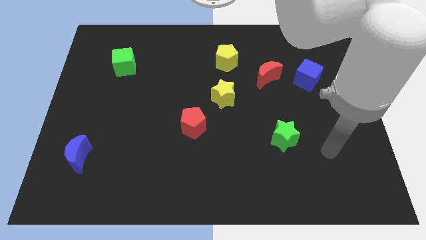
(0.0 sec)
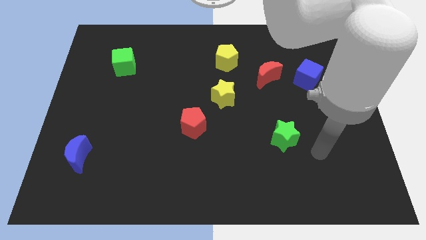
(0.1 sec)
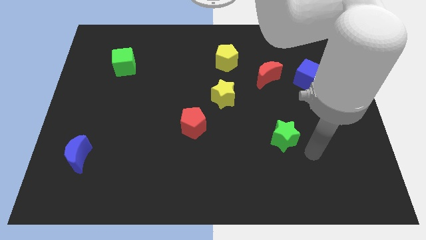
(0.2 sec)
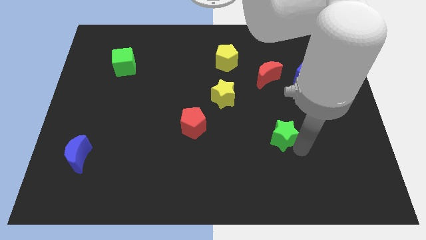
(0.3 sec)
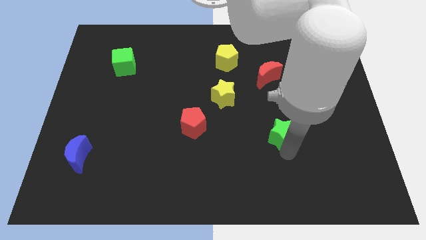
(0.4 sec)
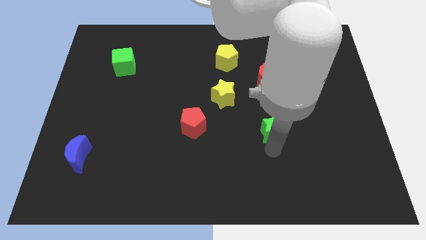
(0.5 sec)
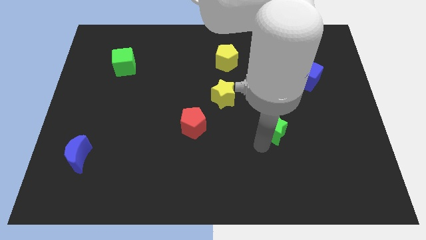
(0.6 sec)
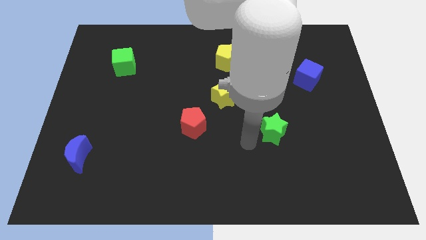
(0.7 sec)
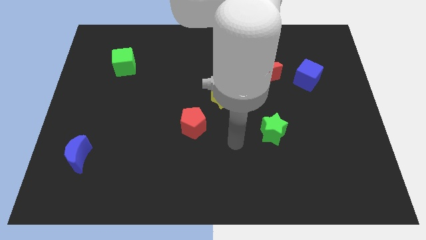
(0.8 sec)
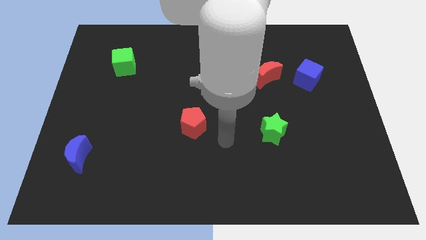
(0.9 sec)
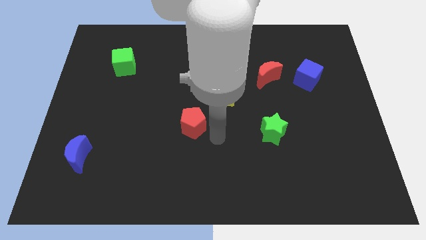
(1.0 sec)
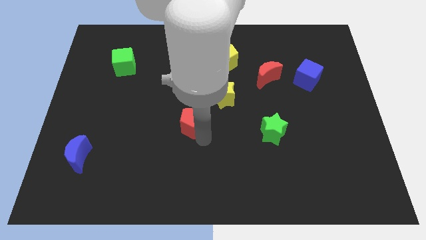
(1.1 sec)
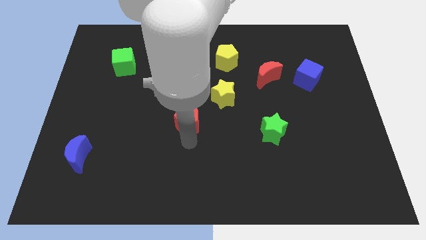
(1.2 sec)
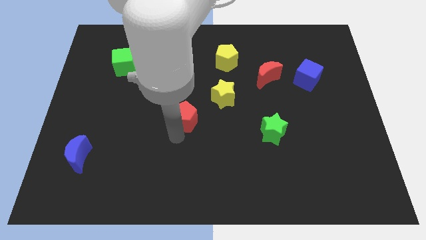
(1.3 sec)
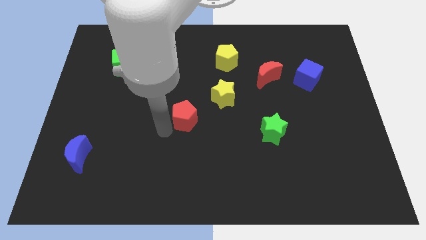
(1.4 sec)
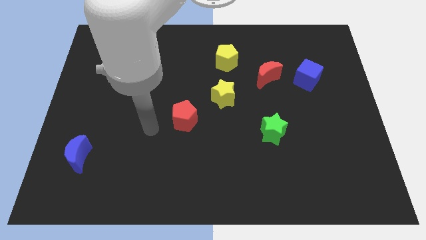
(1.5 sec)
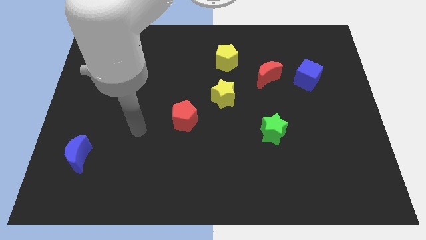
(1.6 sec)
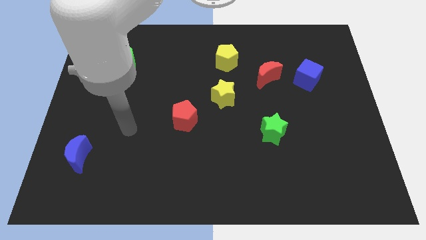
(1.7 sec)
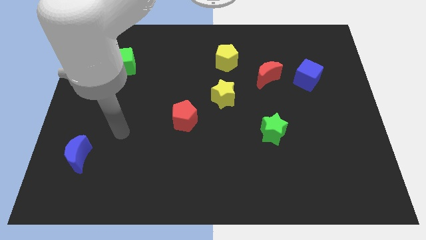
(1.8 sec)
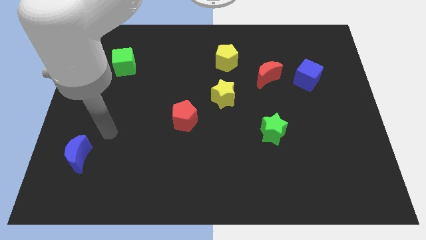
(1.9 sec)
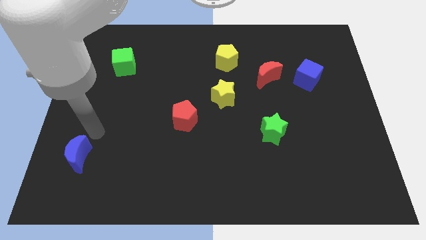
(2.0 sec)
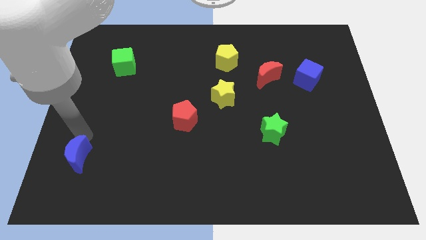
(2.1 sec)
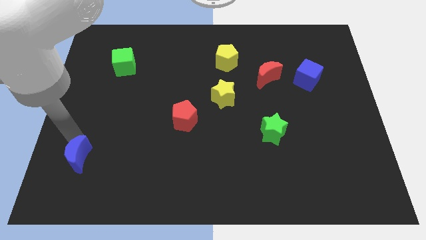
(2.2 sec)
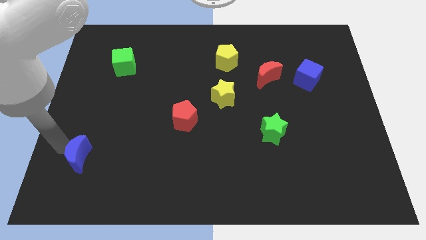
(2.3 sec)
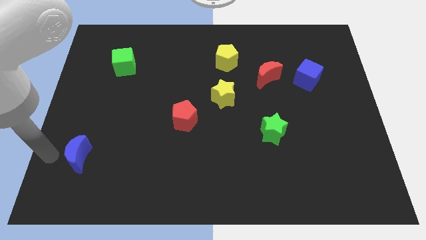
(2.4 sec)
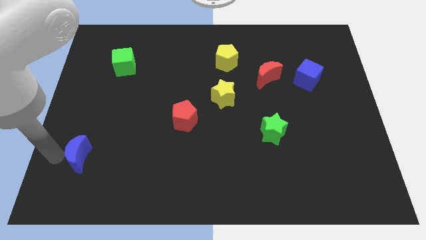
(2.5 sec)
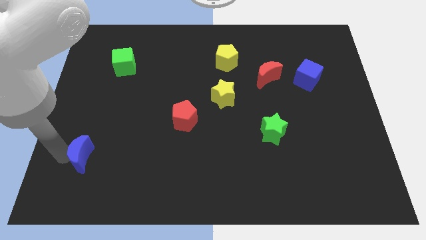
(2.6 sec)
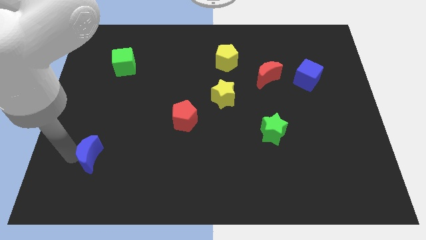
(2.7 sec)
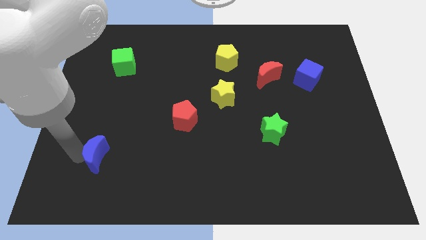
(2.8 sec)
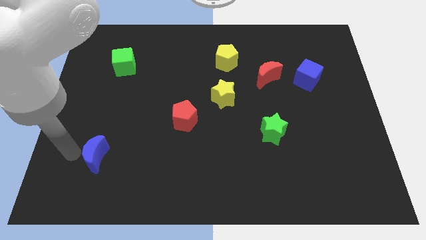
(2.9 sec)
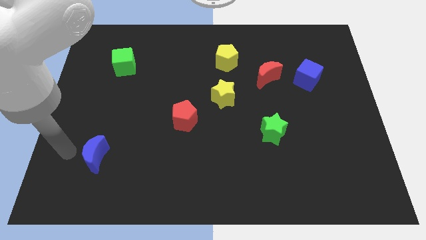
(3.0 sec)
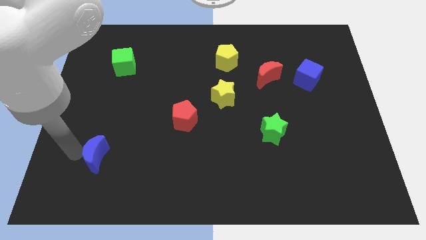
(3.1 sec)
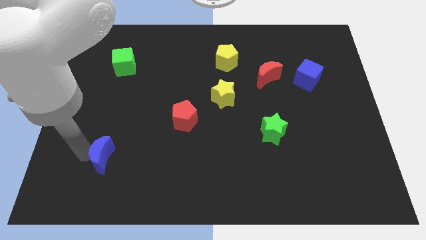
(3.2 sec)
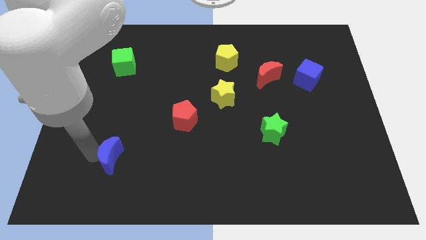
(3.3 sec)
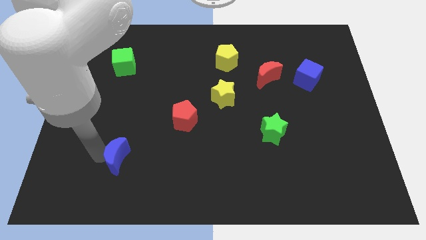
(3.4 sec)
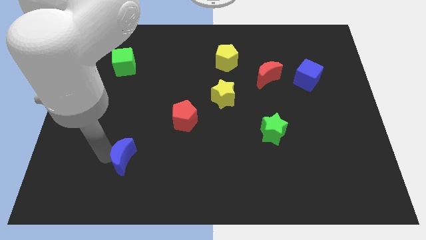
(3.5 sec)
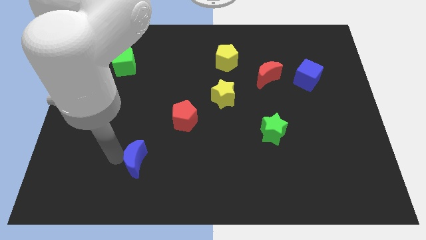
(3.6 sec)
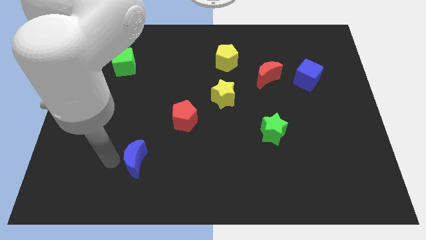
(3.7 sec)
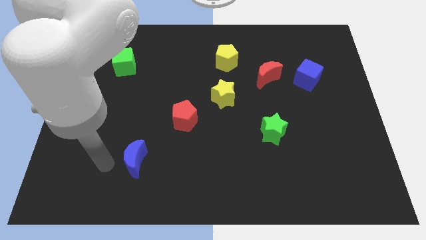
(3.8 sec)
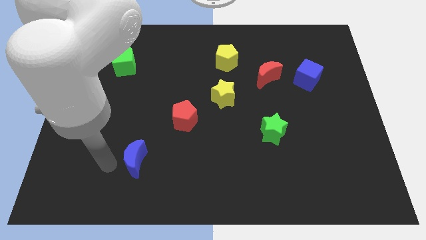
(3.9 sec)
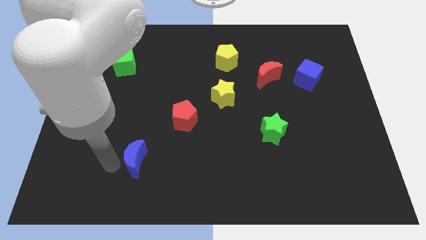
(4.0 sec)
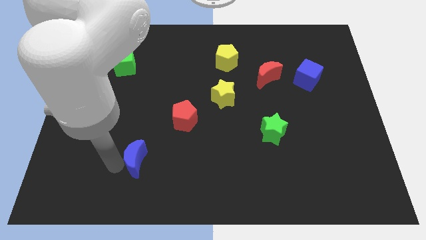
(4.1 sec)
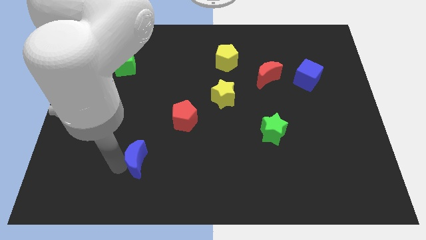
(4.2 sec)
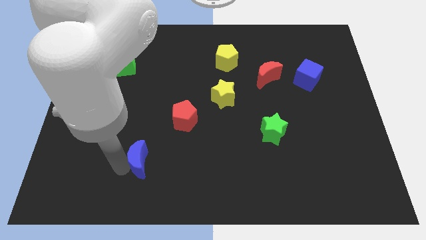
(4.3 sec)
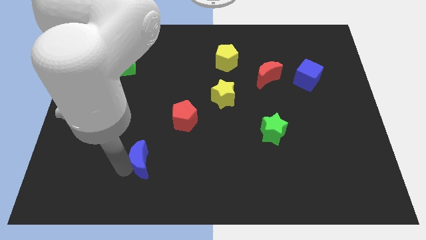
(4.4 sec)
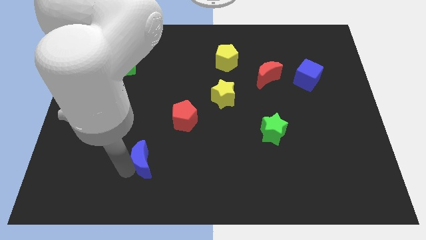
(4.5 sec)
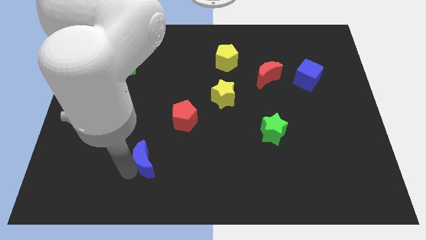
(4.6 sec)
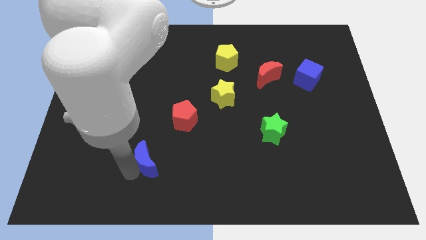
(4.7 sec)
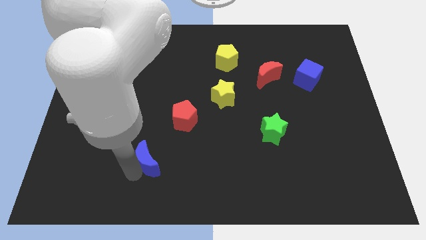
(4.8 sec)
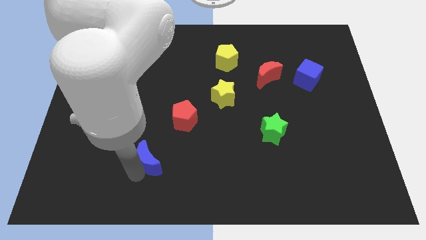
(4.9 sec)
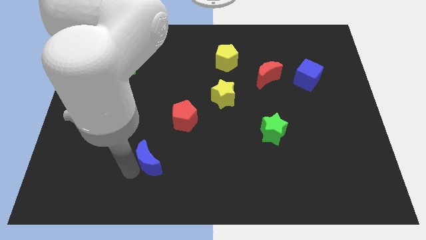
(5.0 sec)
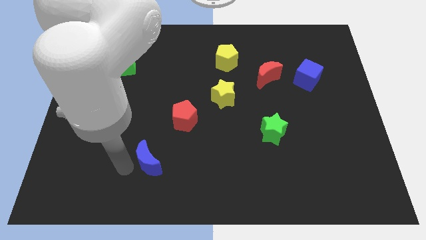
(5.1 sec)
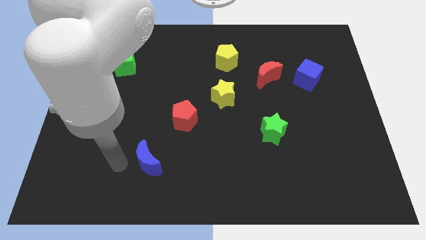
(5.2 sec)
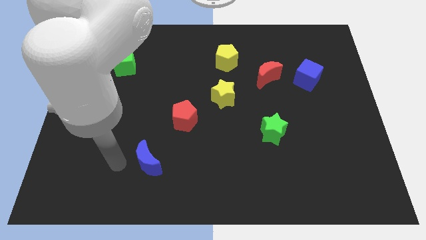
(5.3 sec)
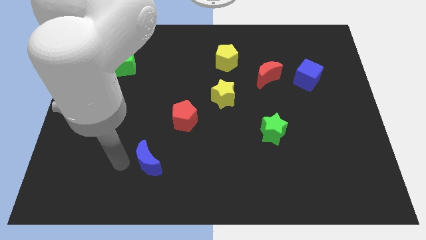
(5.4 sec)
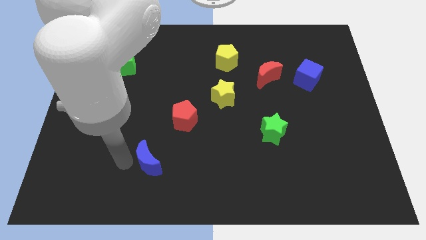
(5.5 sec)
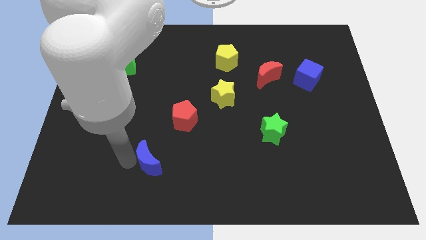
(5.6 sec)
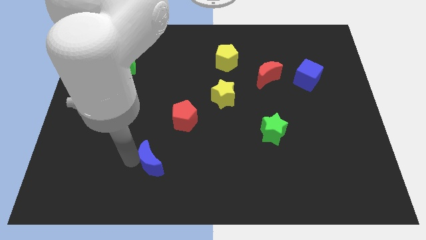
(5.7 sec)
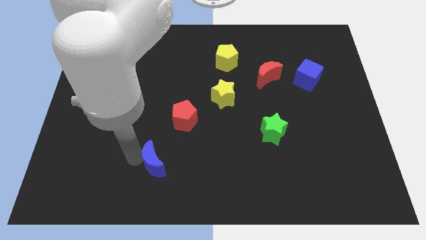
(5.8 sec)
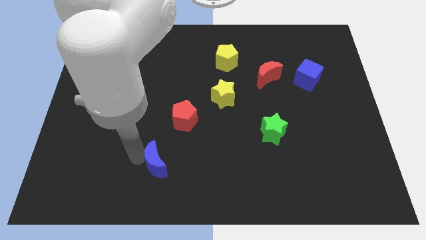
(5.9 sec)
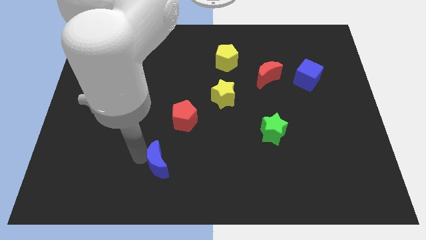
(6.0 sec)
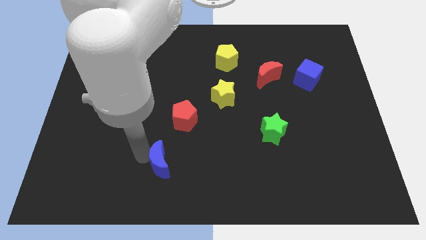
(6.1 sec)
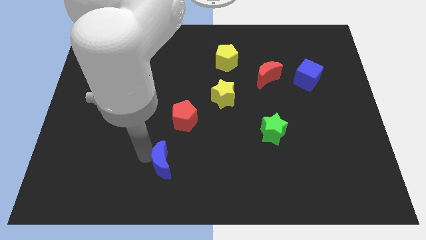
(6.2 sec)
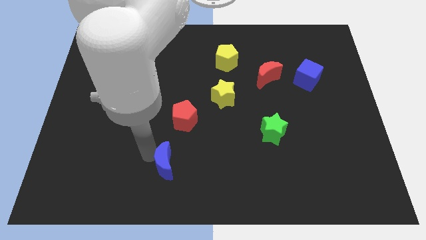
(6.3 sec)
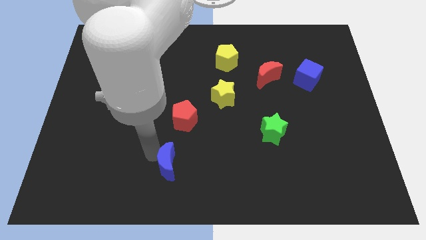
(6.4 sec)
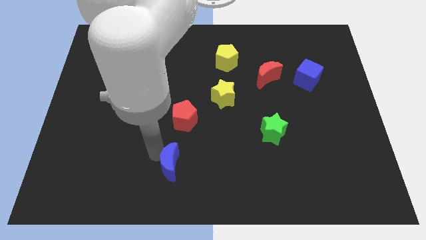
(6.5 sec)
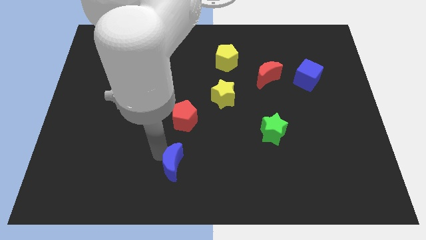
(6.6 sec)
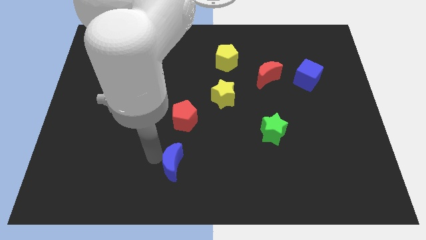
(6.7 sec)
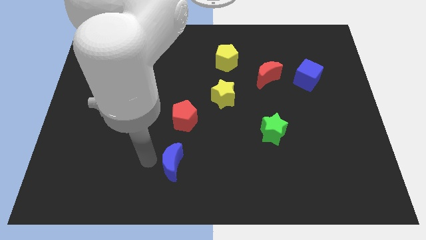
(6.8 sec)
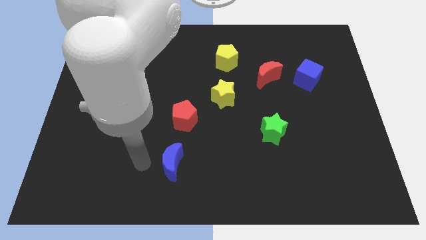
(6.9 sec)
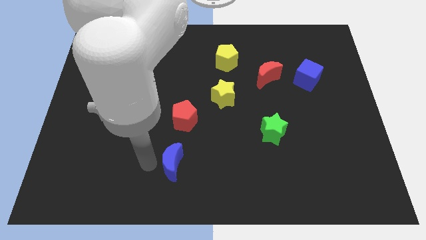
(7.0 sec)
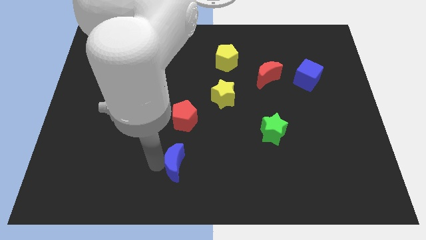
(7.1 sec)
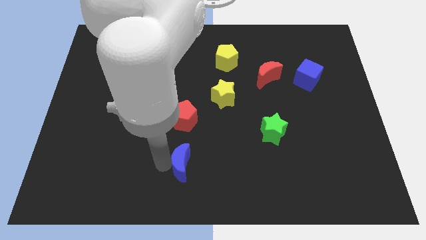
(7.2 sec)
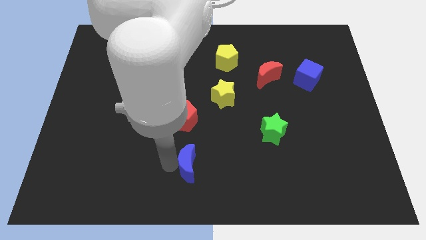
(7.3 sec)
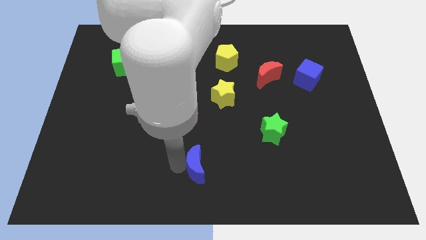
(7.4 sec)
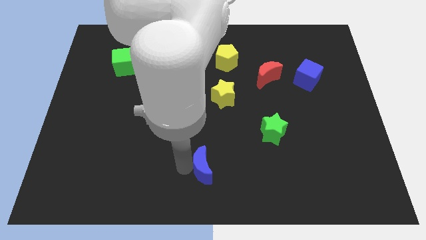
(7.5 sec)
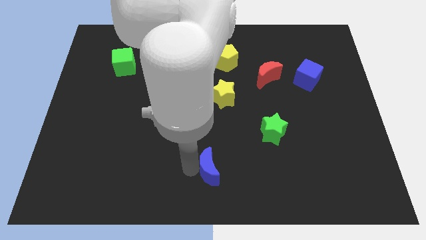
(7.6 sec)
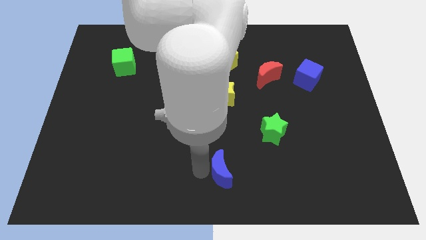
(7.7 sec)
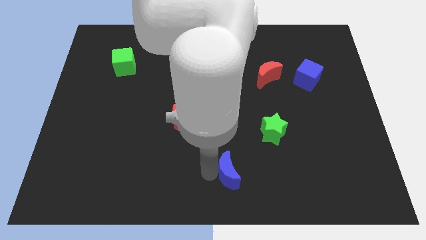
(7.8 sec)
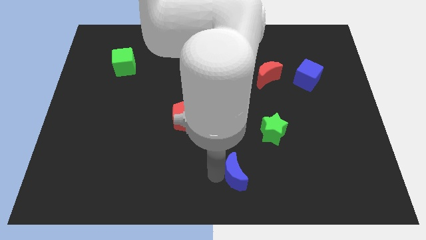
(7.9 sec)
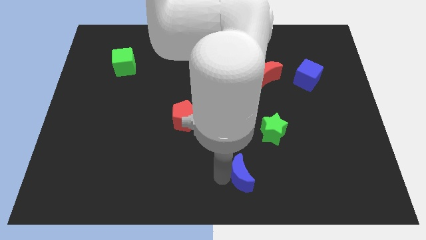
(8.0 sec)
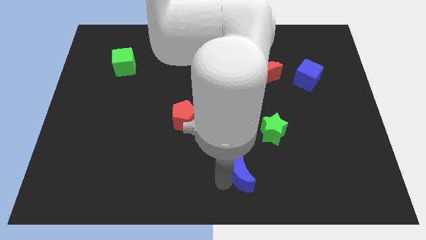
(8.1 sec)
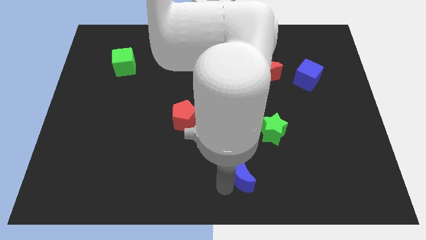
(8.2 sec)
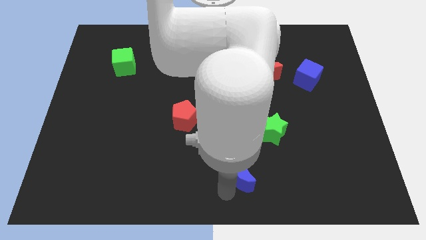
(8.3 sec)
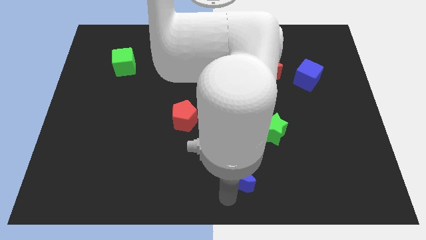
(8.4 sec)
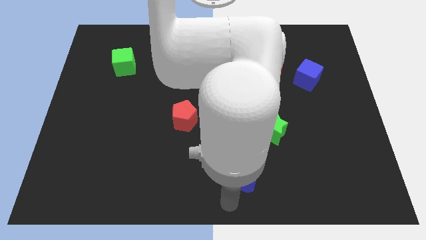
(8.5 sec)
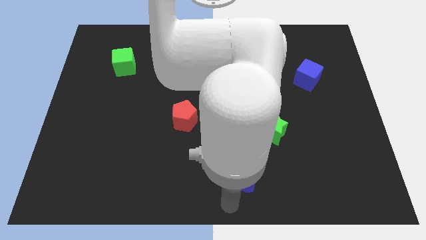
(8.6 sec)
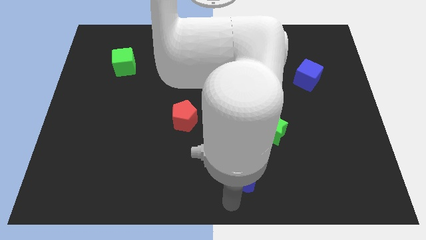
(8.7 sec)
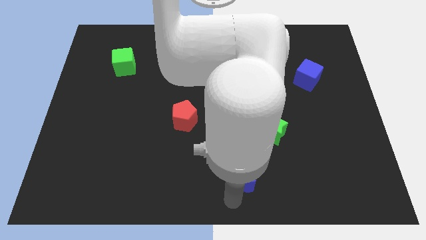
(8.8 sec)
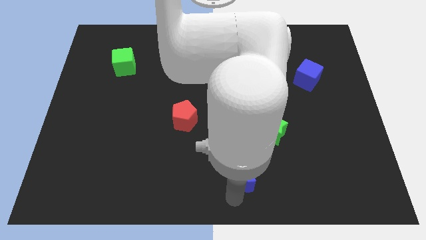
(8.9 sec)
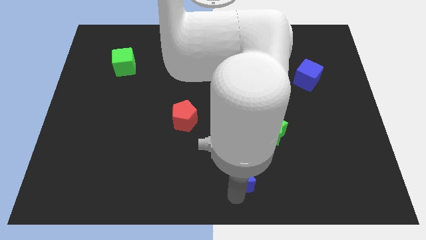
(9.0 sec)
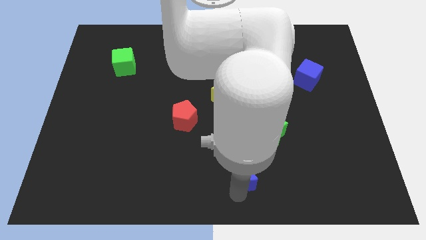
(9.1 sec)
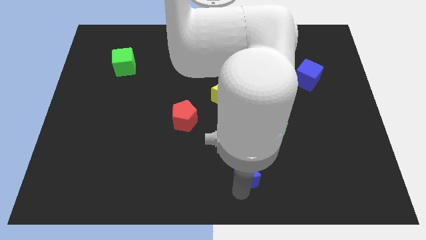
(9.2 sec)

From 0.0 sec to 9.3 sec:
move the blue moon to the bottom left side of the green star
